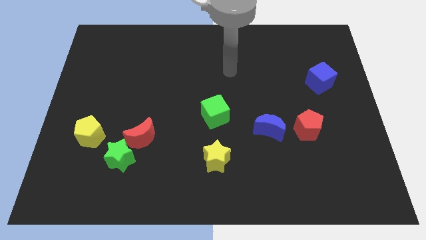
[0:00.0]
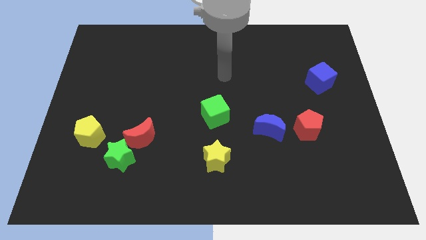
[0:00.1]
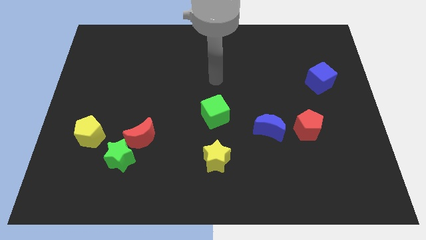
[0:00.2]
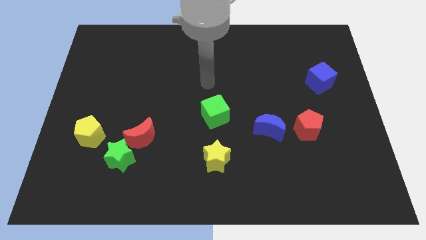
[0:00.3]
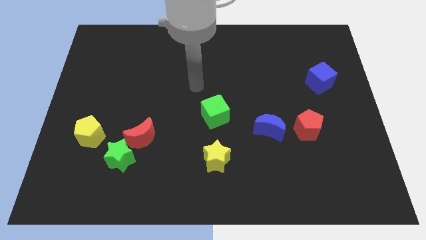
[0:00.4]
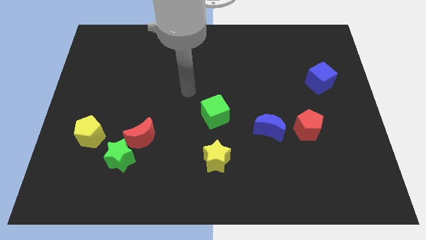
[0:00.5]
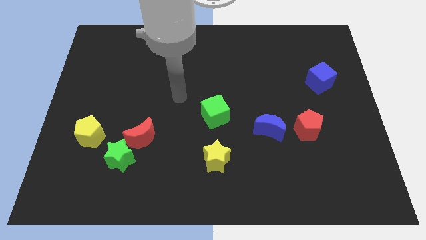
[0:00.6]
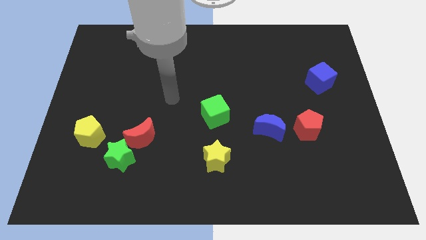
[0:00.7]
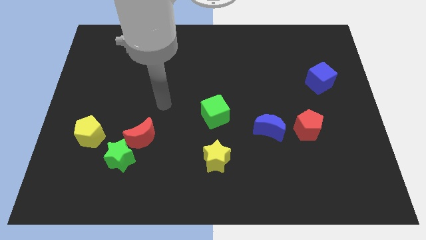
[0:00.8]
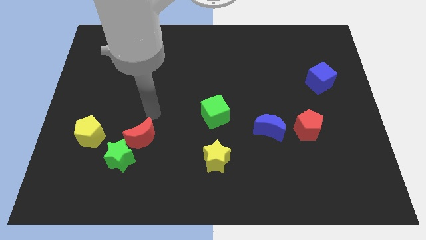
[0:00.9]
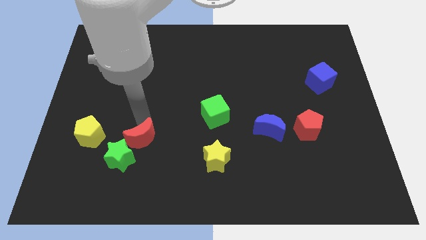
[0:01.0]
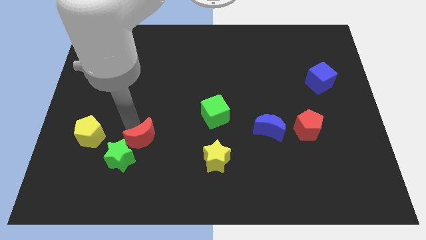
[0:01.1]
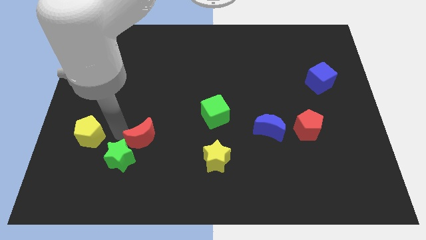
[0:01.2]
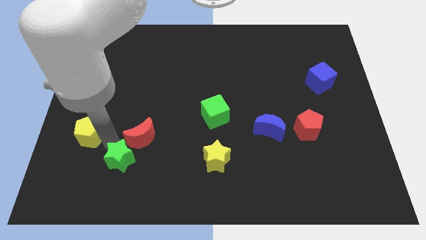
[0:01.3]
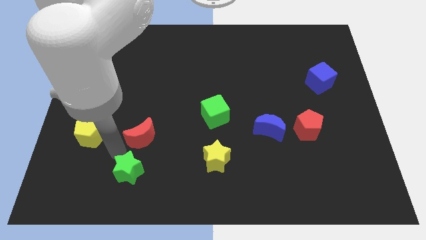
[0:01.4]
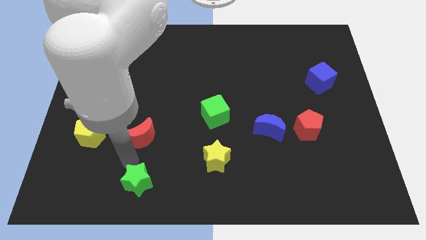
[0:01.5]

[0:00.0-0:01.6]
move the red moon away from the green star

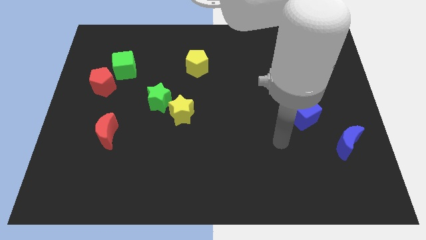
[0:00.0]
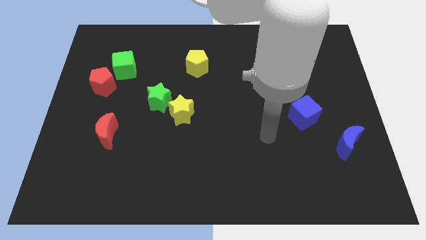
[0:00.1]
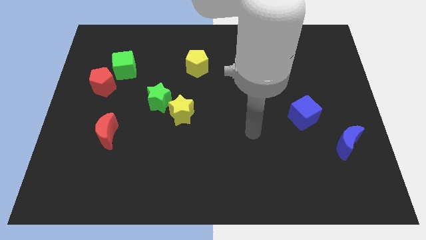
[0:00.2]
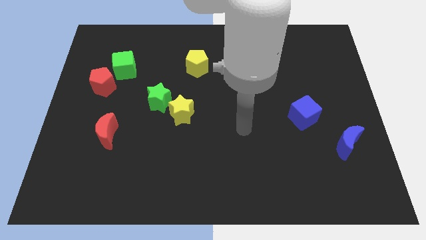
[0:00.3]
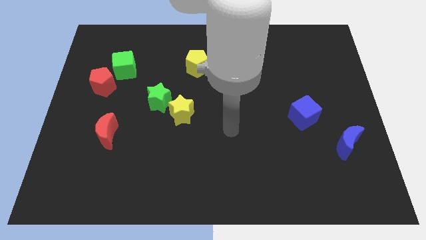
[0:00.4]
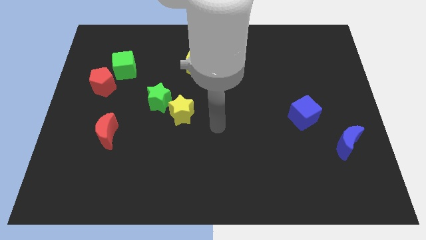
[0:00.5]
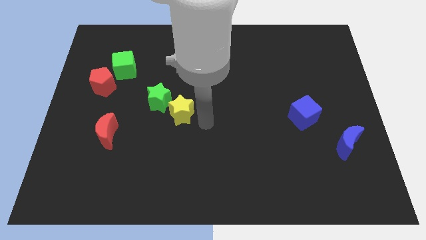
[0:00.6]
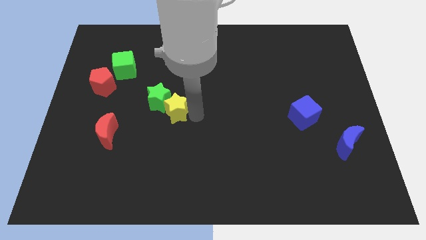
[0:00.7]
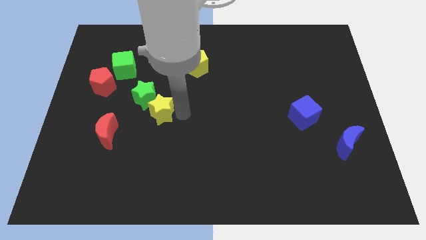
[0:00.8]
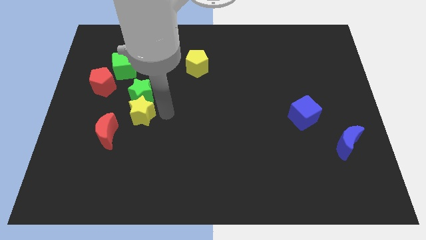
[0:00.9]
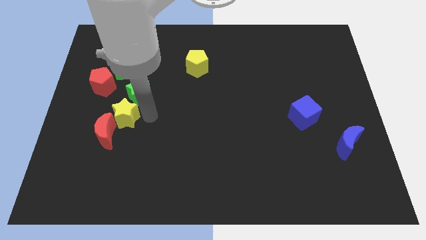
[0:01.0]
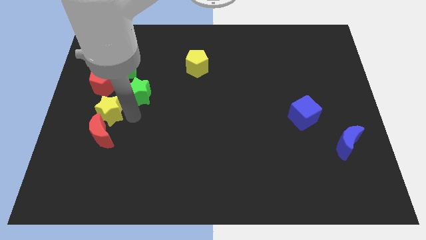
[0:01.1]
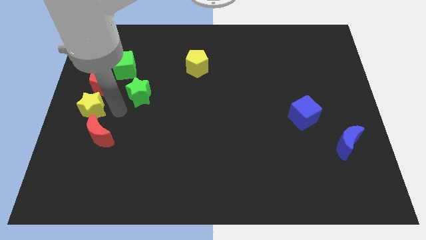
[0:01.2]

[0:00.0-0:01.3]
move the green star away from the yellow star

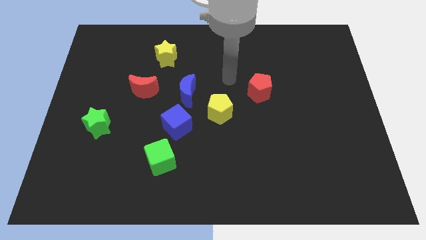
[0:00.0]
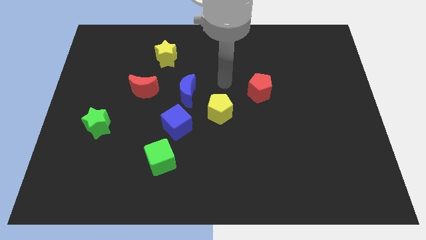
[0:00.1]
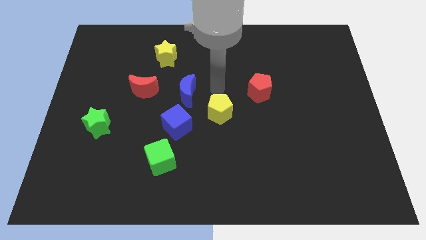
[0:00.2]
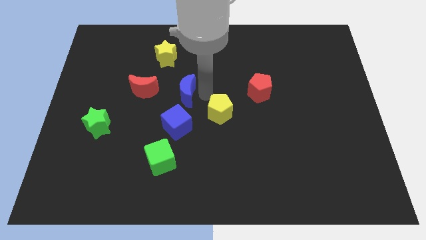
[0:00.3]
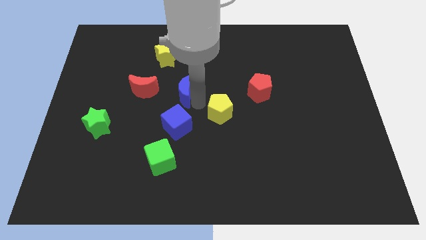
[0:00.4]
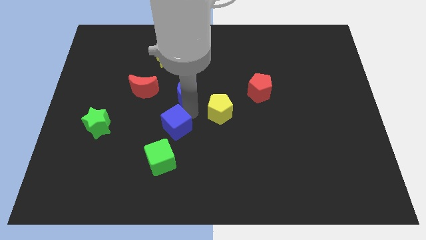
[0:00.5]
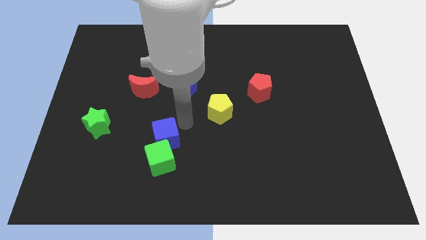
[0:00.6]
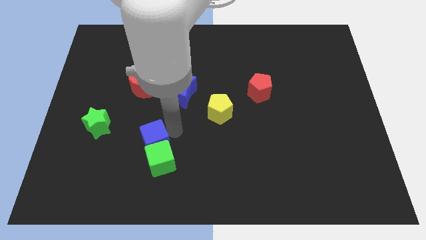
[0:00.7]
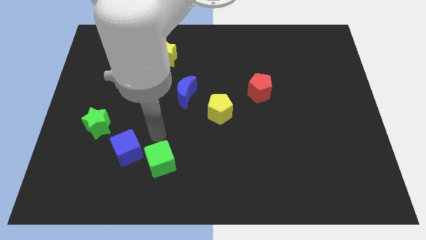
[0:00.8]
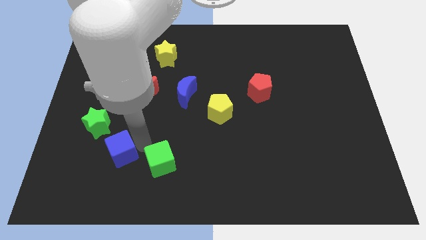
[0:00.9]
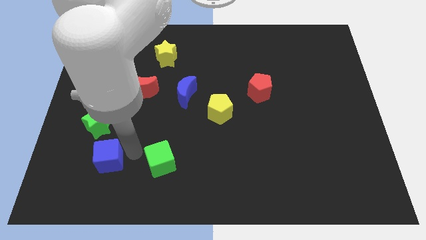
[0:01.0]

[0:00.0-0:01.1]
move the green cube away from the blue cube

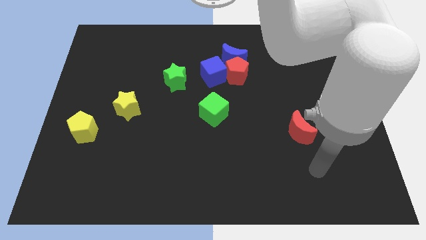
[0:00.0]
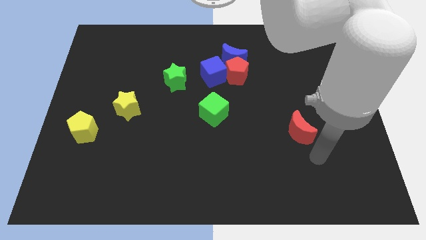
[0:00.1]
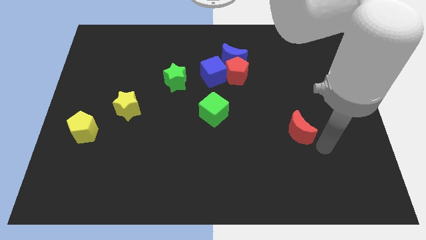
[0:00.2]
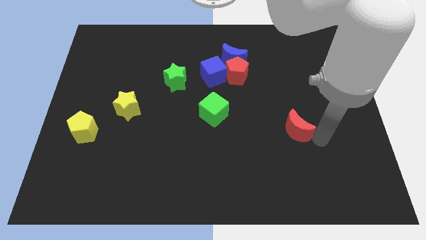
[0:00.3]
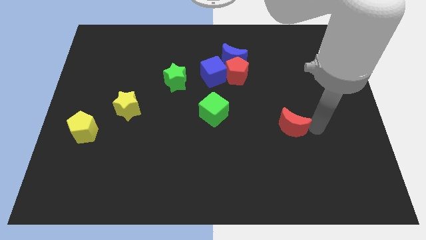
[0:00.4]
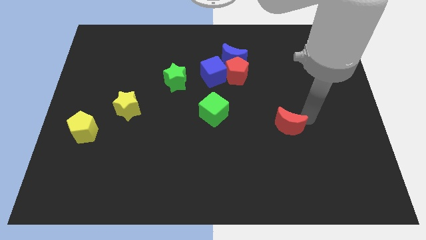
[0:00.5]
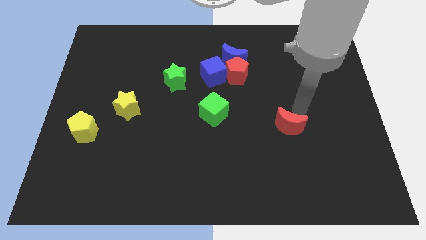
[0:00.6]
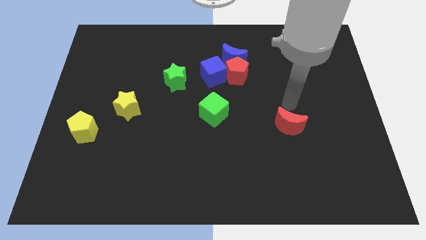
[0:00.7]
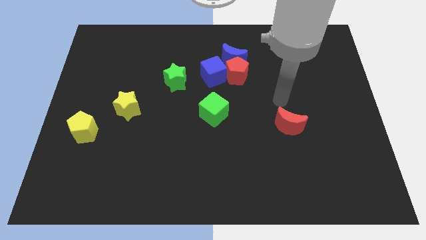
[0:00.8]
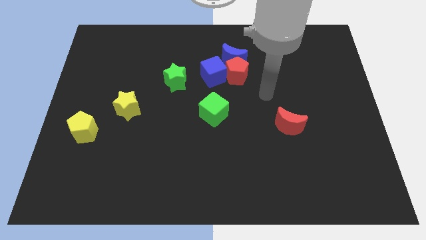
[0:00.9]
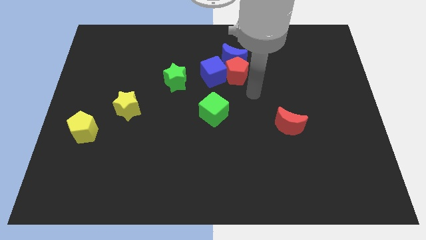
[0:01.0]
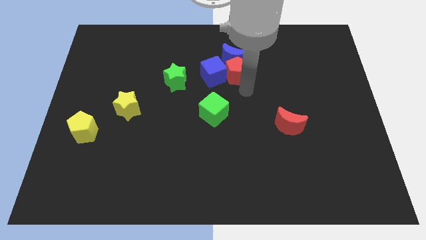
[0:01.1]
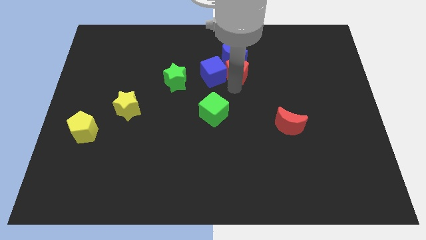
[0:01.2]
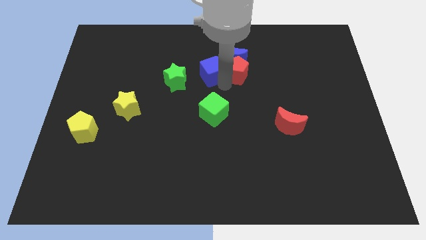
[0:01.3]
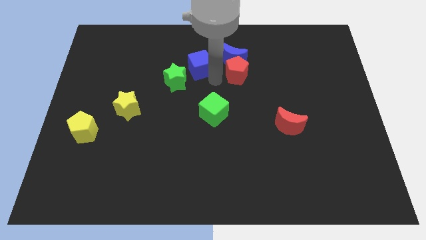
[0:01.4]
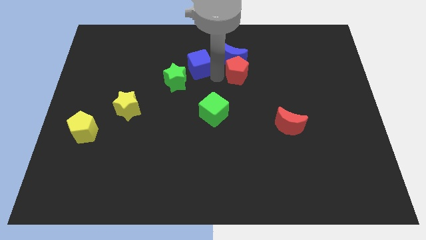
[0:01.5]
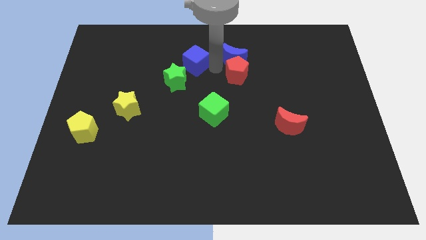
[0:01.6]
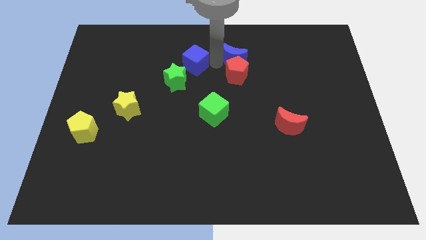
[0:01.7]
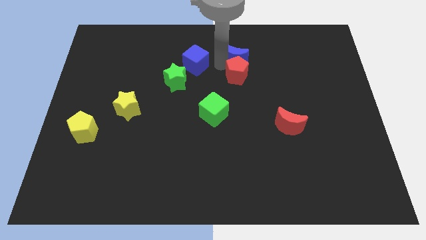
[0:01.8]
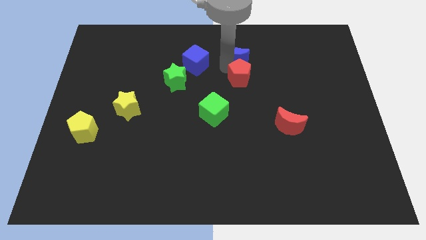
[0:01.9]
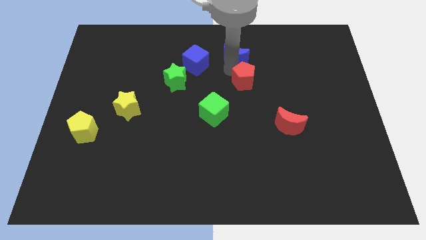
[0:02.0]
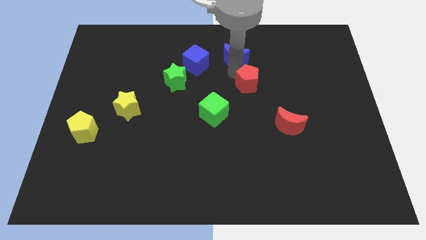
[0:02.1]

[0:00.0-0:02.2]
move the red pentagon away from the blue moon and blue cube

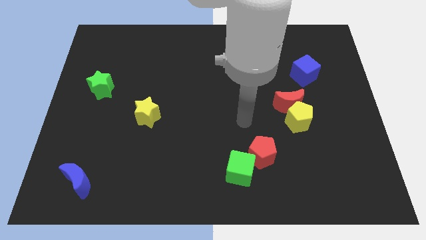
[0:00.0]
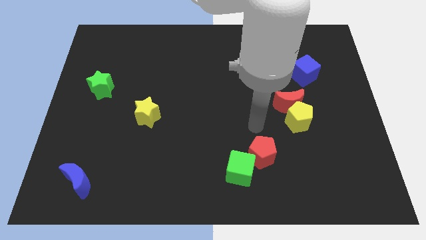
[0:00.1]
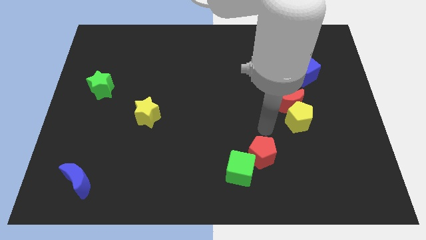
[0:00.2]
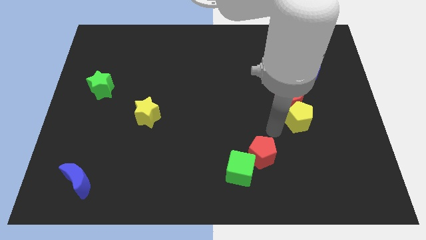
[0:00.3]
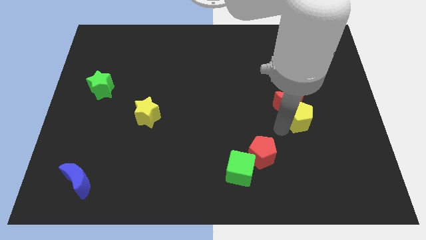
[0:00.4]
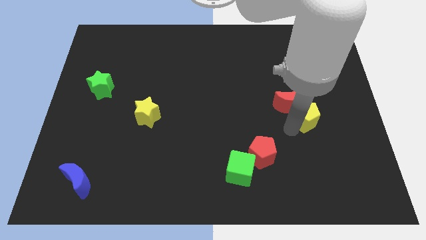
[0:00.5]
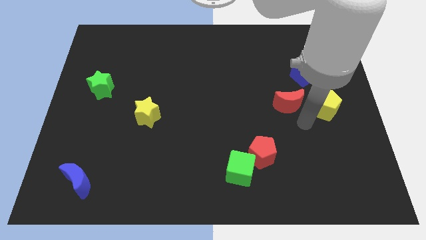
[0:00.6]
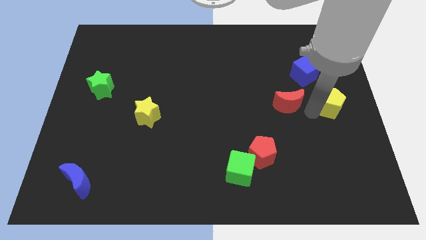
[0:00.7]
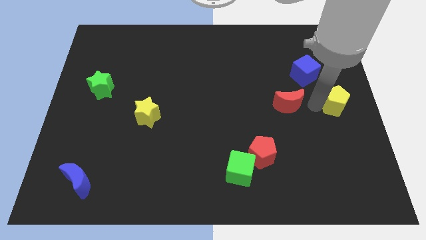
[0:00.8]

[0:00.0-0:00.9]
move the red moon away from the yellow pentagon

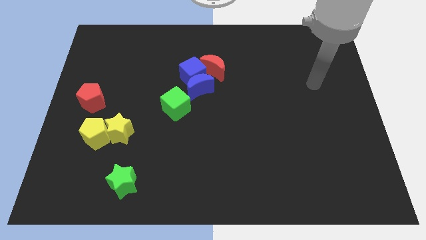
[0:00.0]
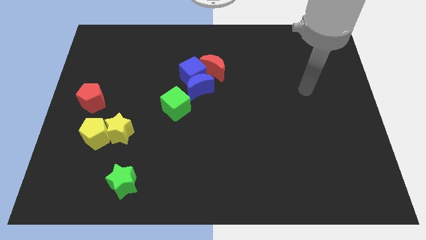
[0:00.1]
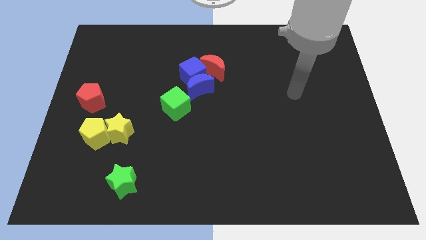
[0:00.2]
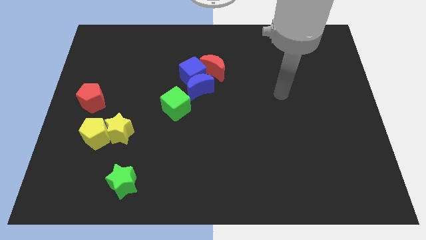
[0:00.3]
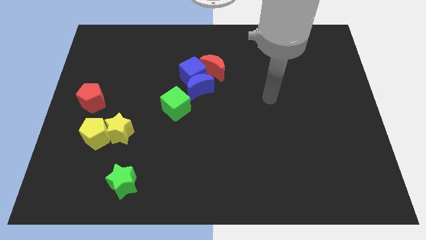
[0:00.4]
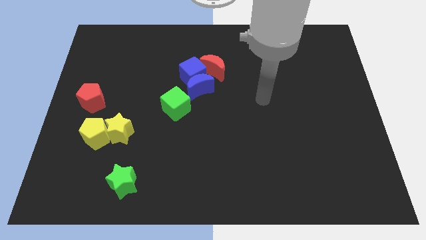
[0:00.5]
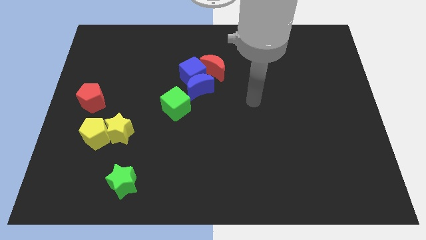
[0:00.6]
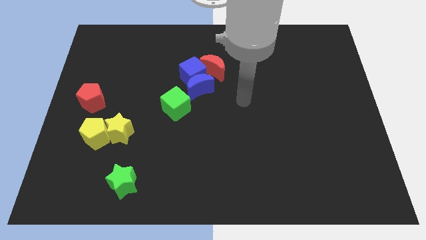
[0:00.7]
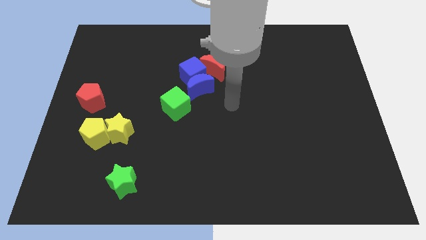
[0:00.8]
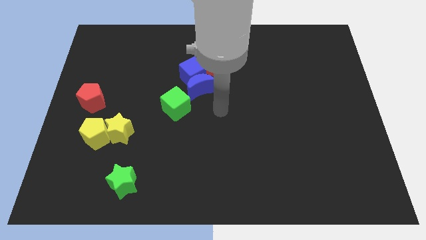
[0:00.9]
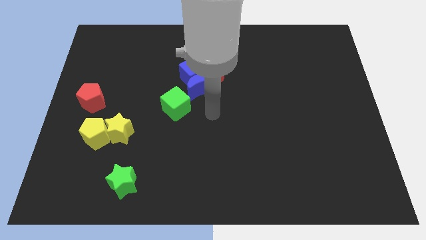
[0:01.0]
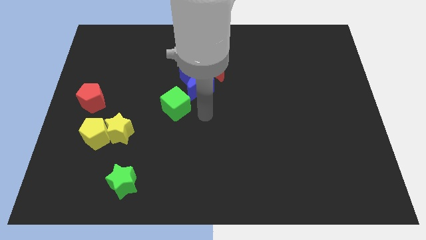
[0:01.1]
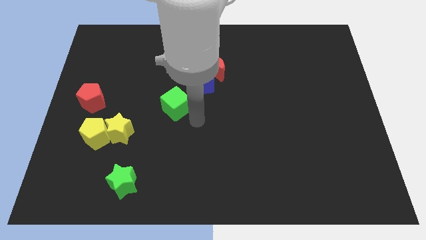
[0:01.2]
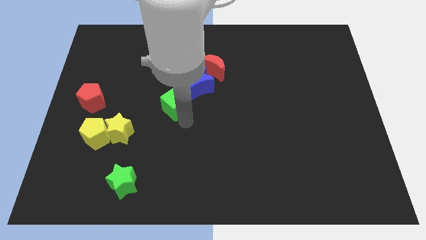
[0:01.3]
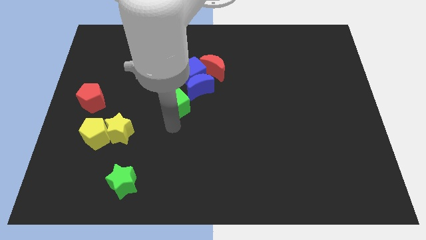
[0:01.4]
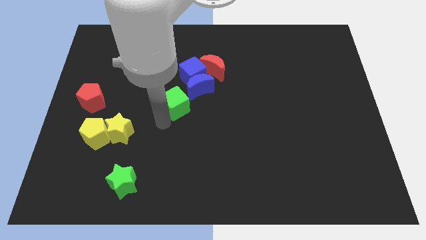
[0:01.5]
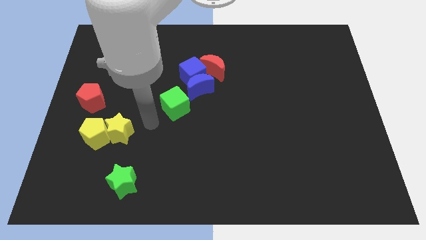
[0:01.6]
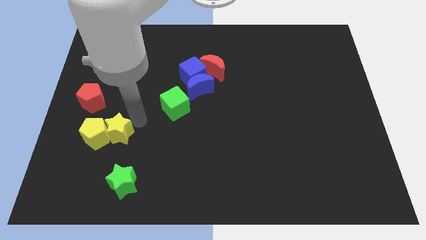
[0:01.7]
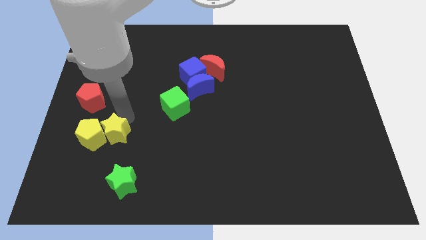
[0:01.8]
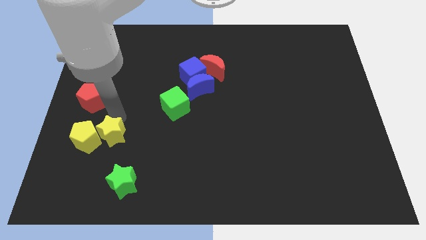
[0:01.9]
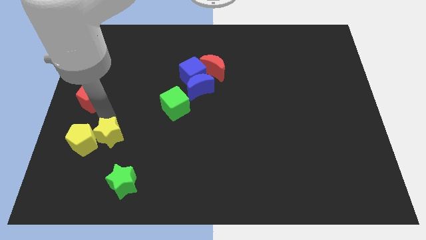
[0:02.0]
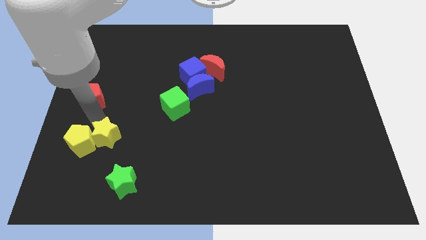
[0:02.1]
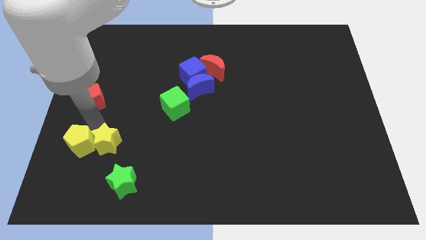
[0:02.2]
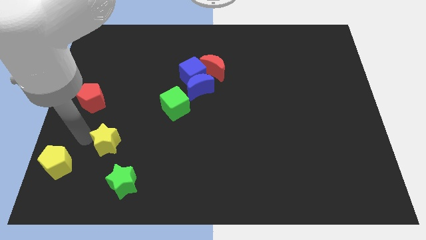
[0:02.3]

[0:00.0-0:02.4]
separate the yellow star from the yellow pentagon
